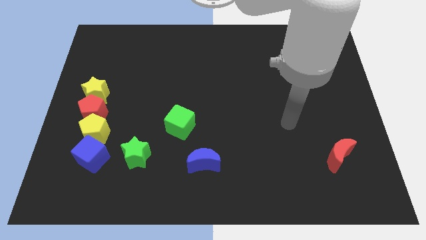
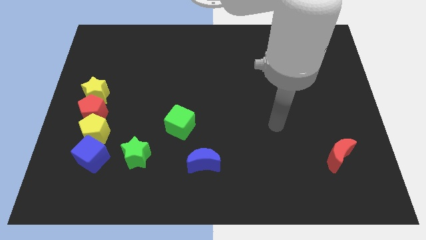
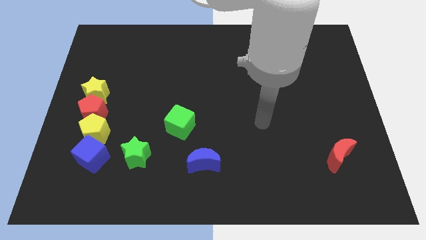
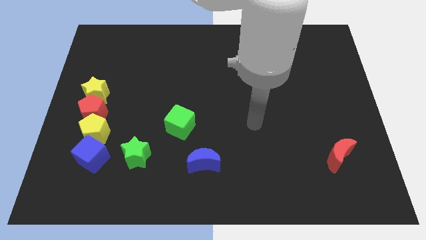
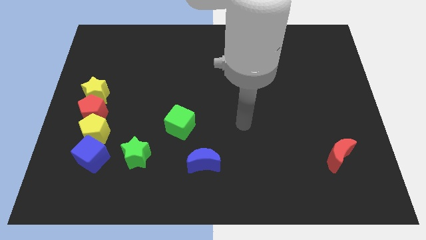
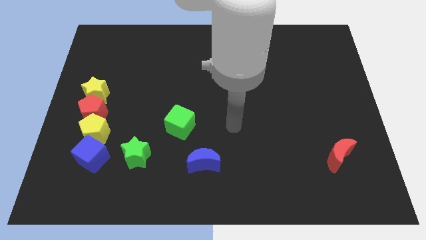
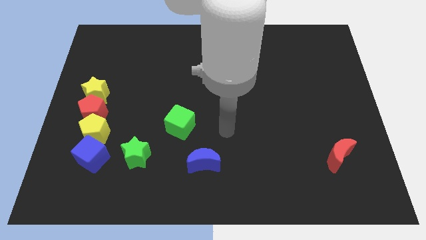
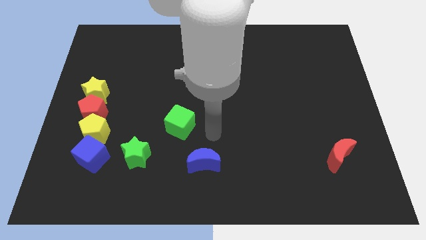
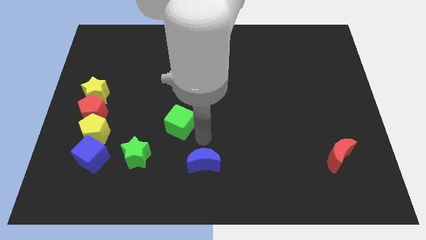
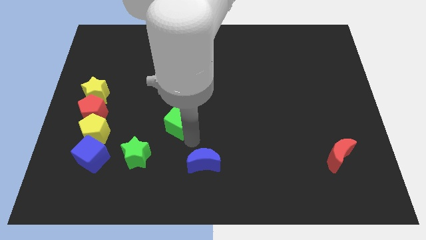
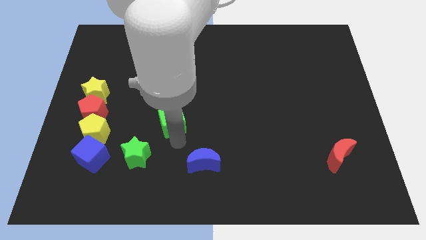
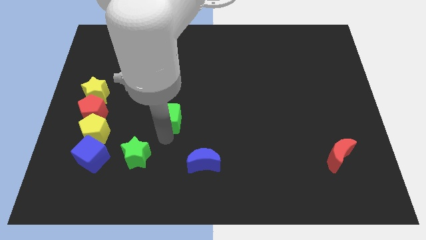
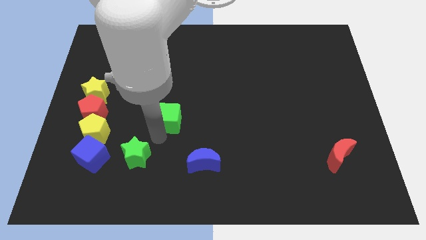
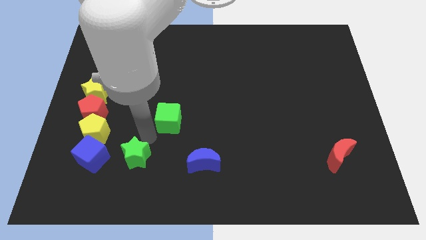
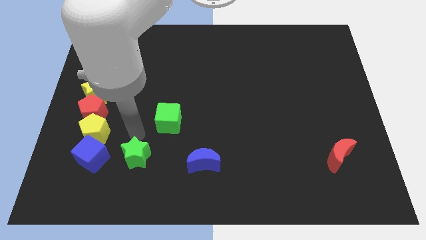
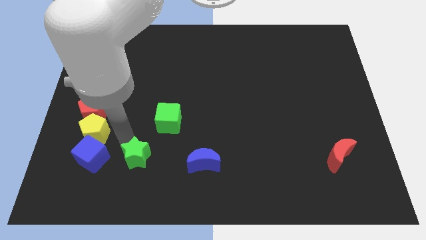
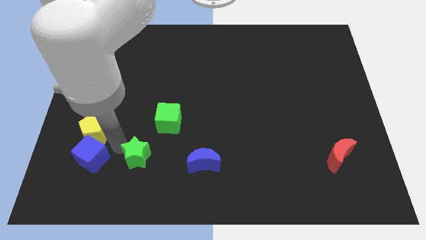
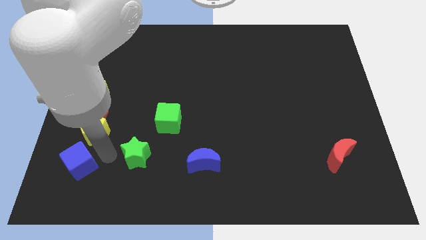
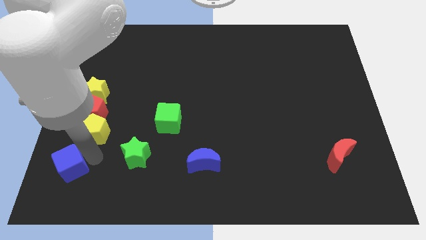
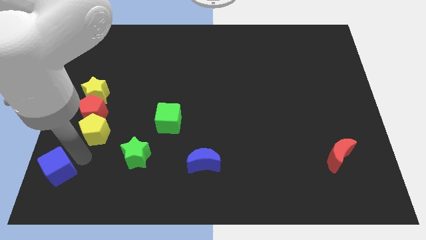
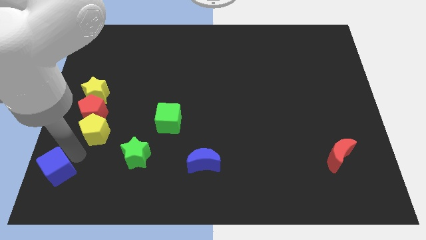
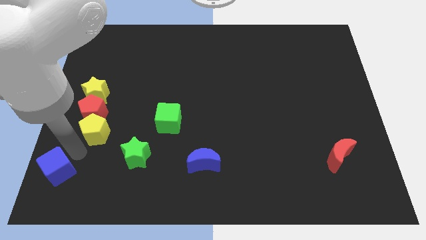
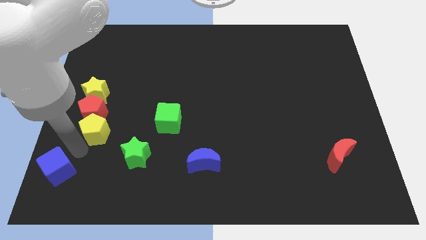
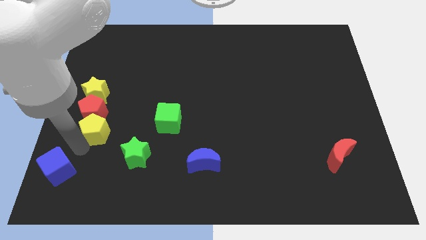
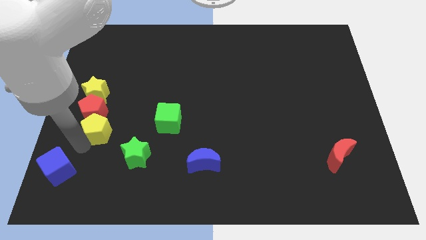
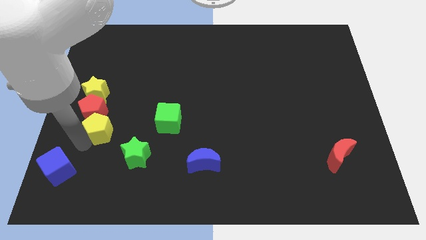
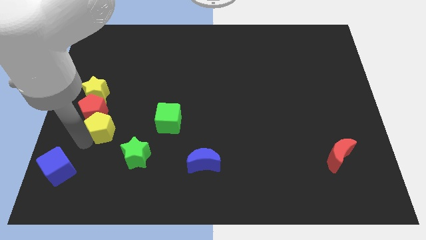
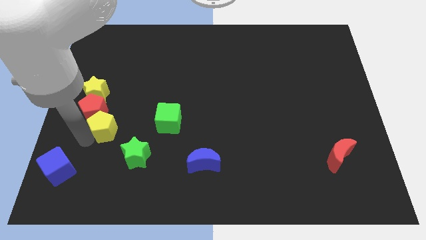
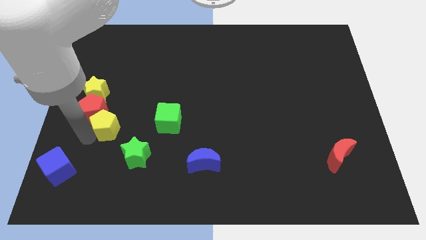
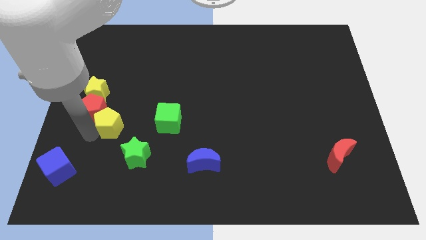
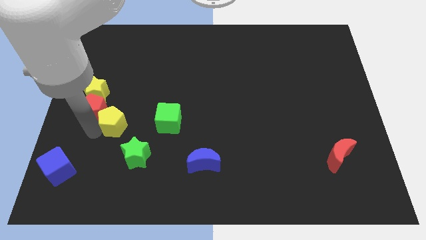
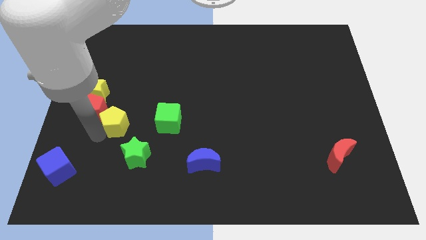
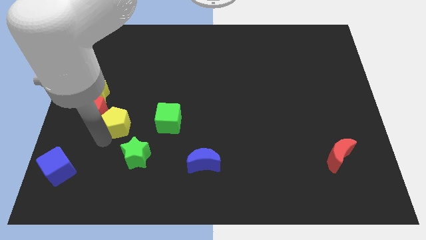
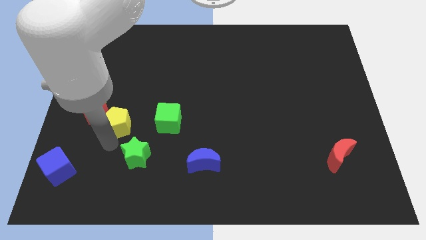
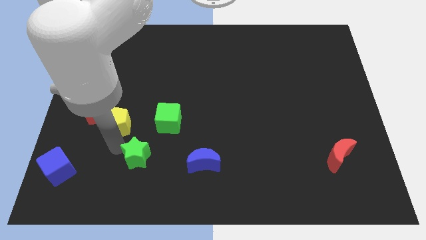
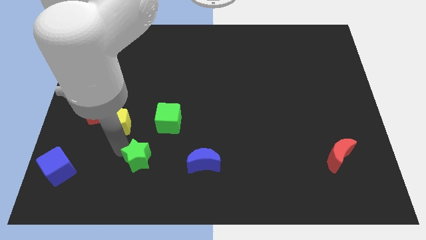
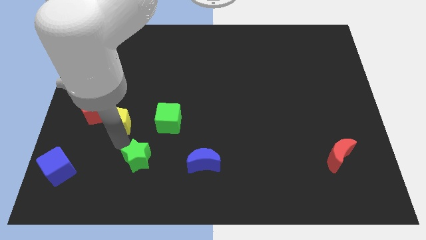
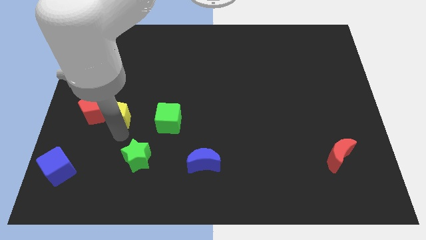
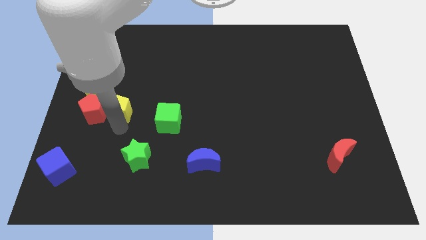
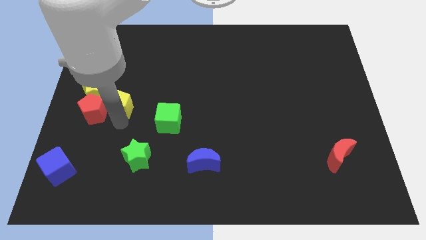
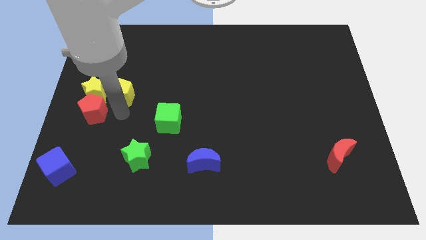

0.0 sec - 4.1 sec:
slightly move the yellow pentagon upwards

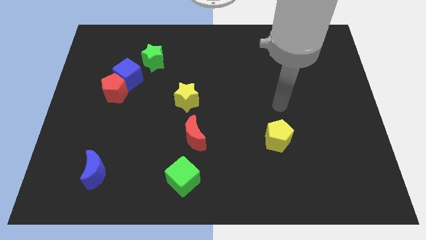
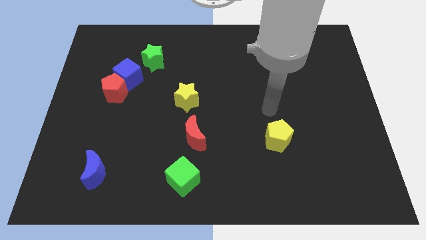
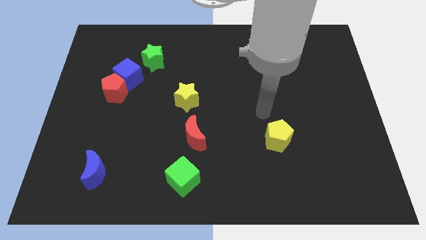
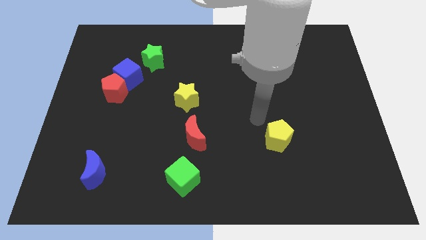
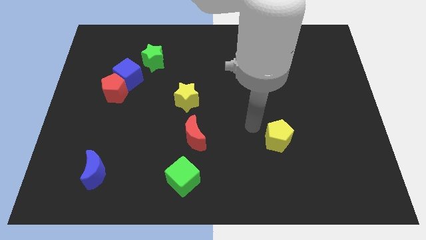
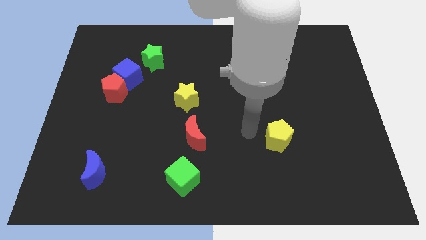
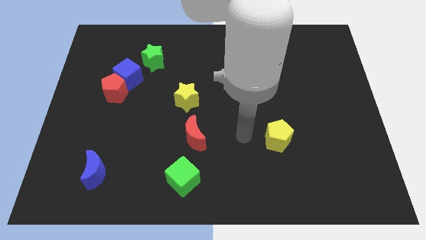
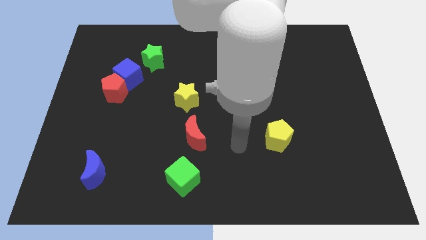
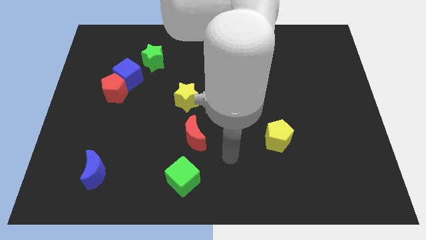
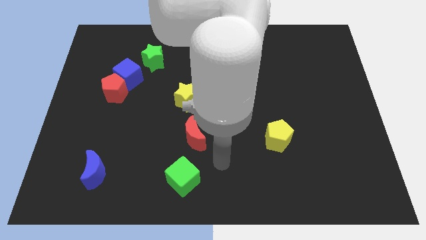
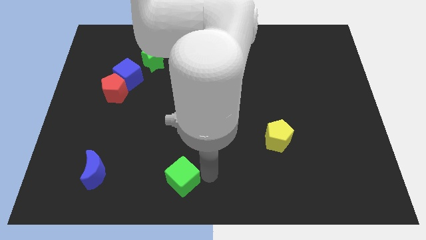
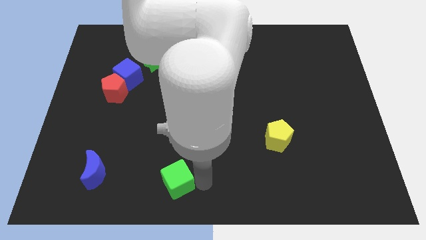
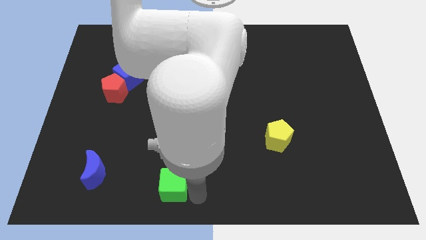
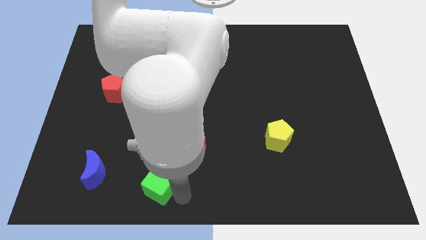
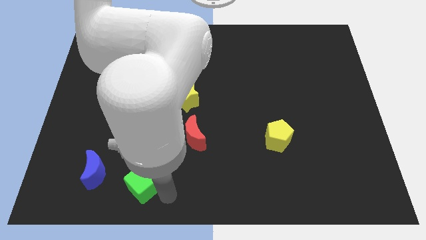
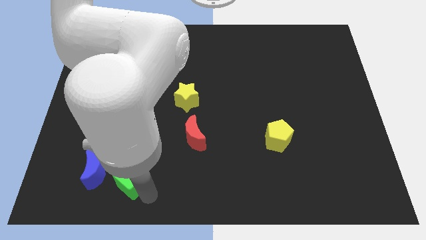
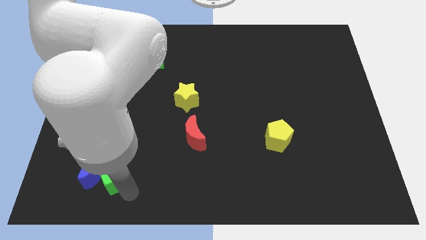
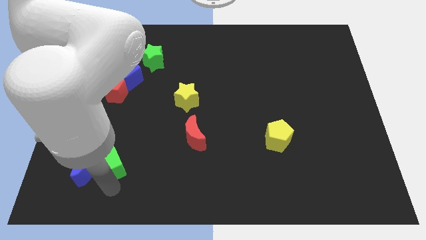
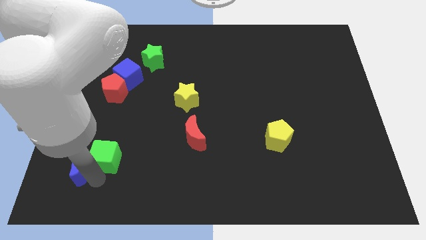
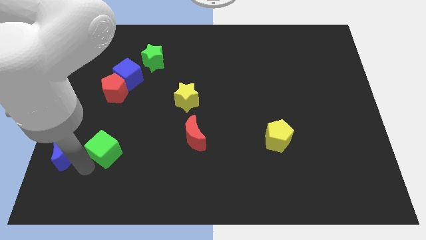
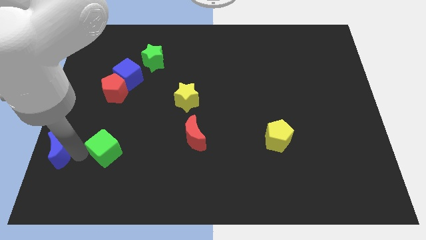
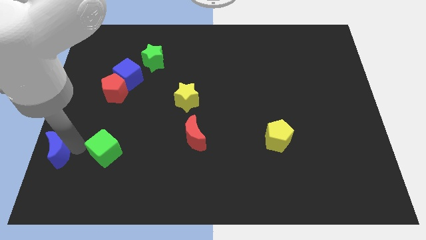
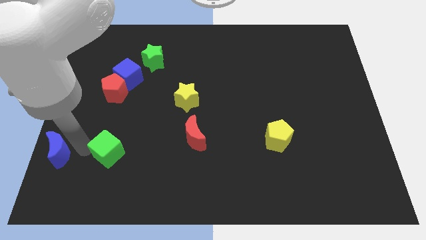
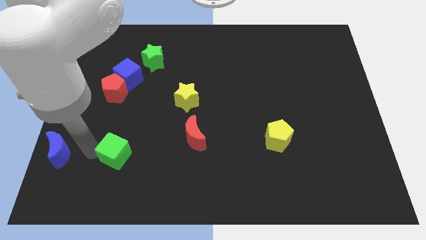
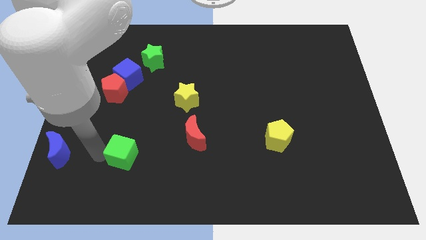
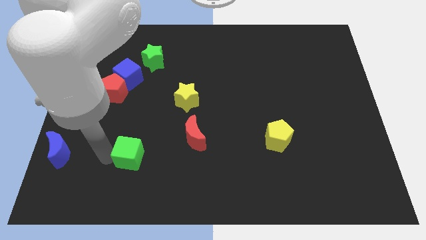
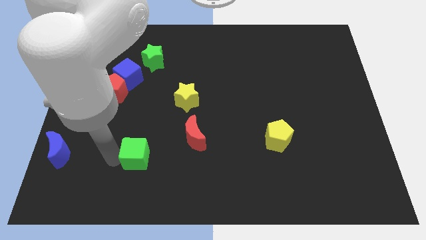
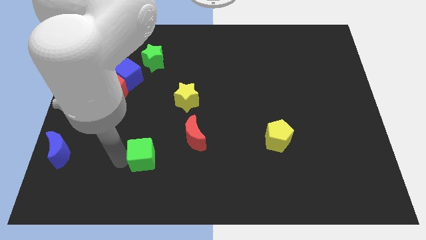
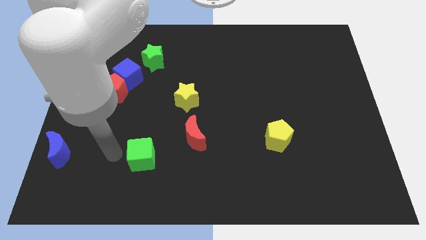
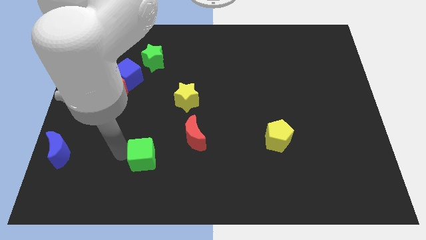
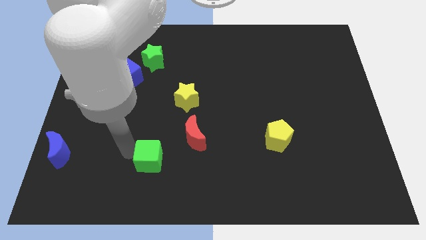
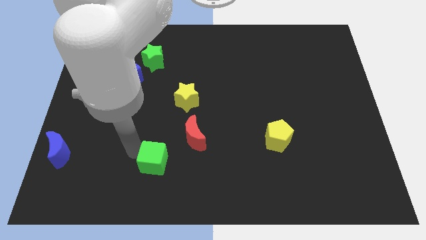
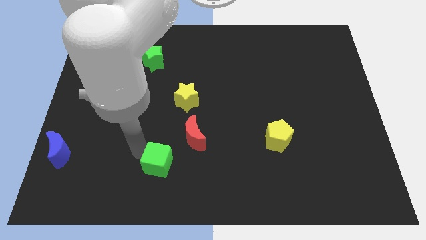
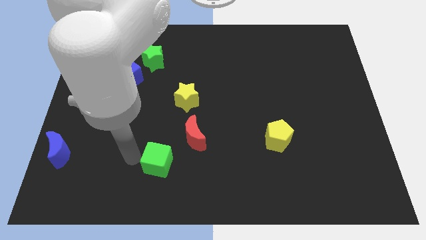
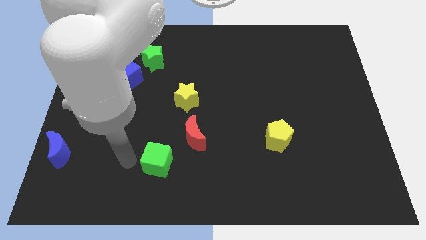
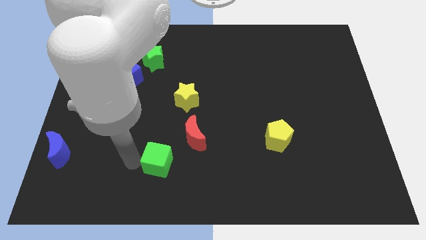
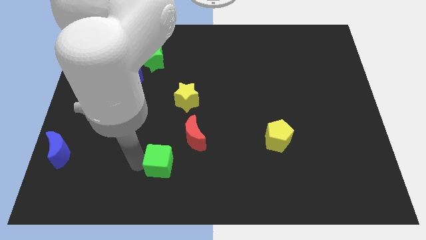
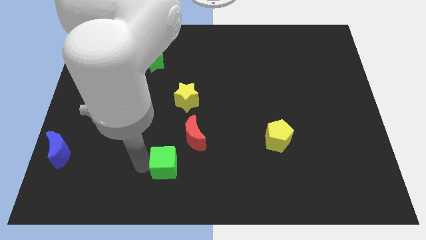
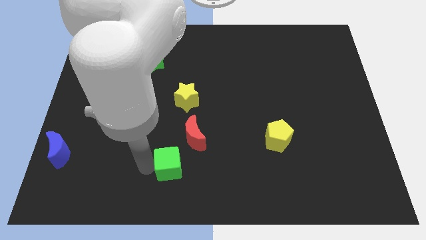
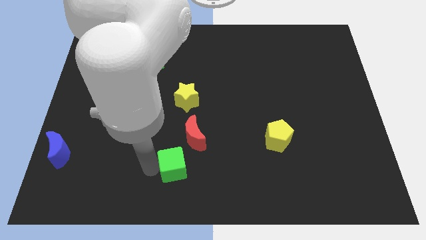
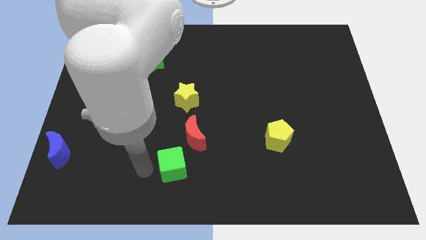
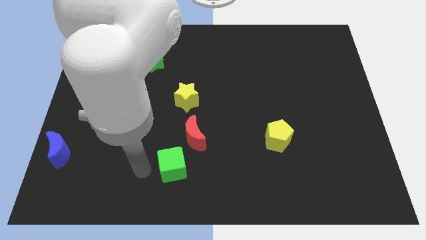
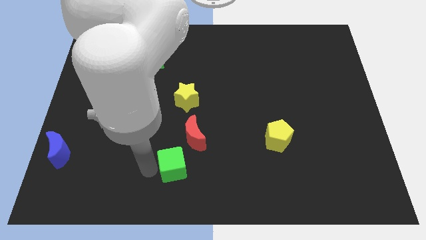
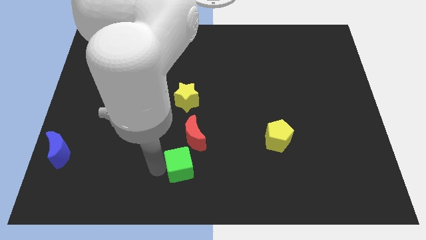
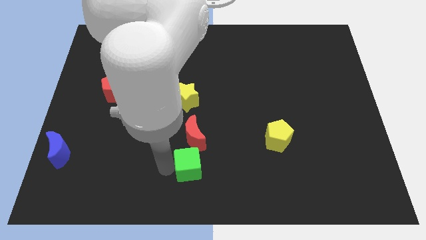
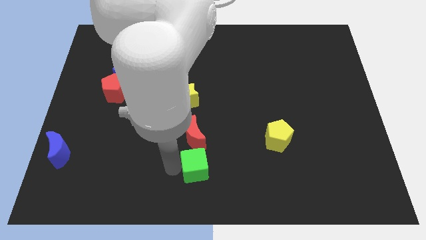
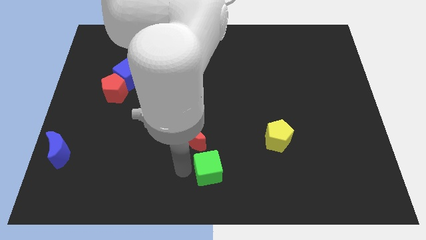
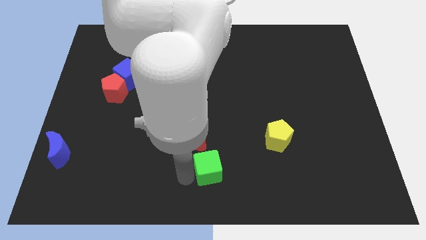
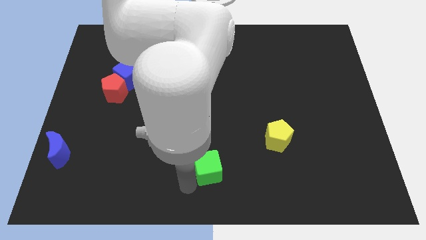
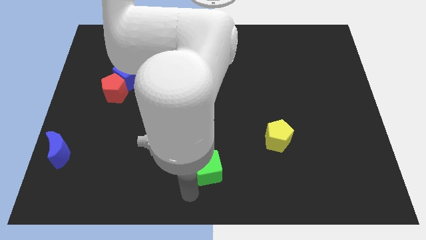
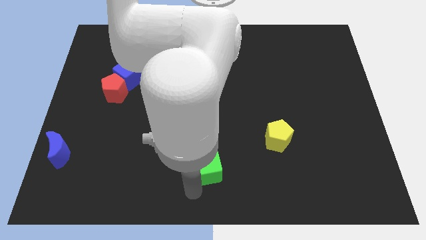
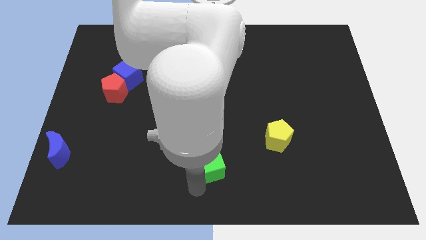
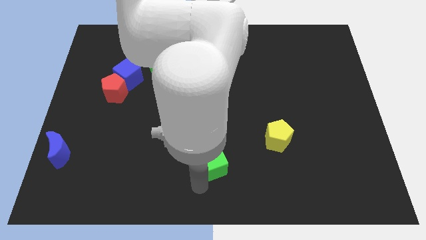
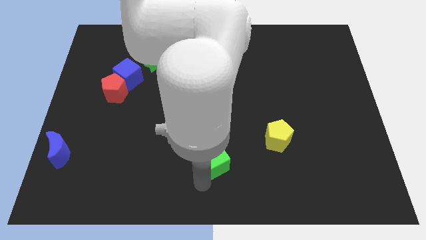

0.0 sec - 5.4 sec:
push the green cube a bit up and right
